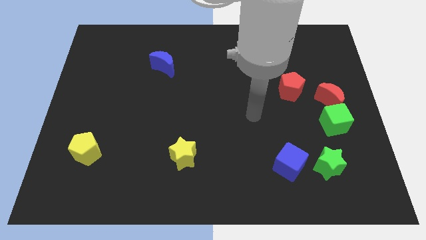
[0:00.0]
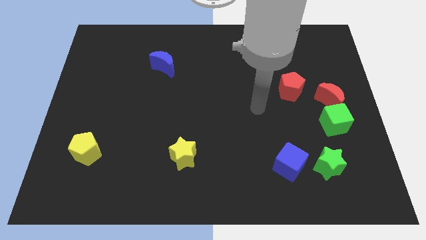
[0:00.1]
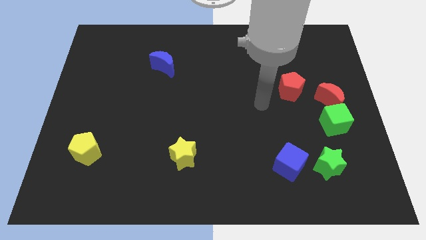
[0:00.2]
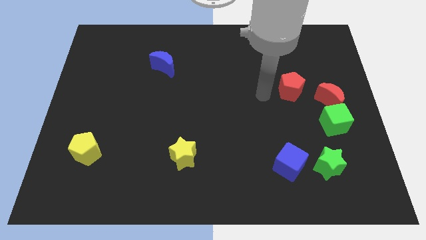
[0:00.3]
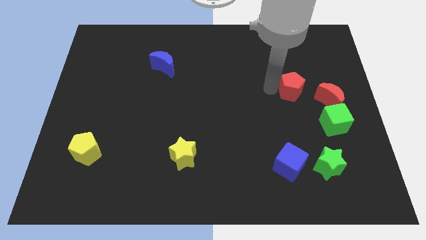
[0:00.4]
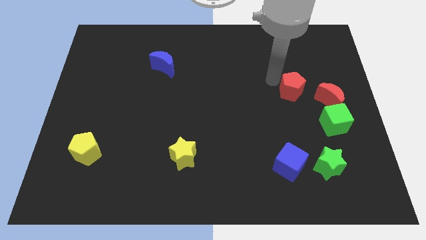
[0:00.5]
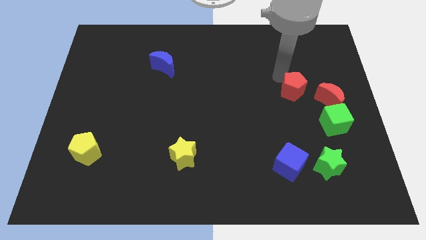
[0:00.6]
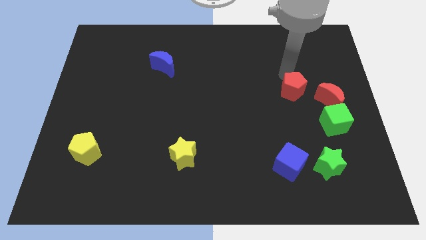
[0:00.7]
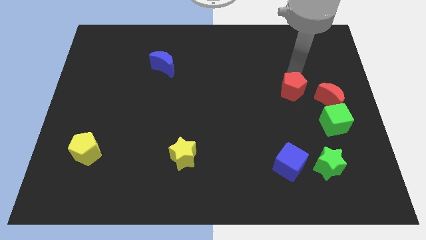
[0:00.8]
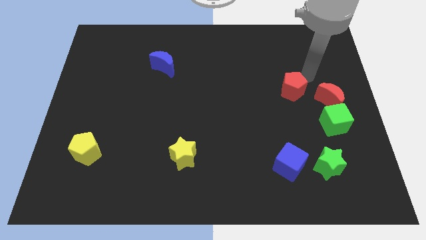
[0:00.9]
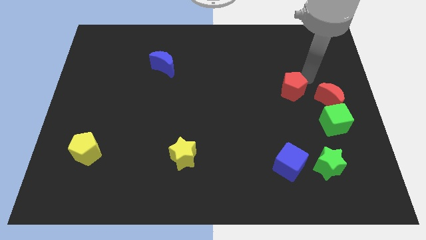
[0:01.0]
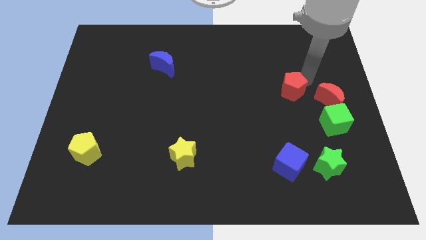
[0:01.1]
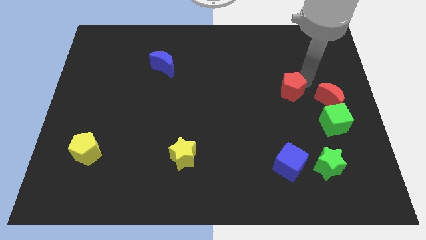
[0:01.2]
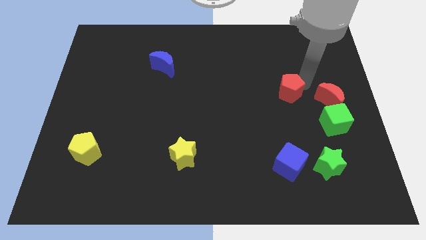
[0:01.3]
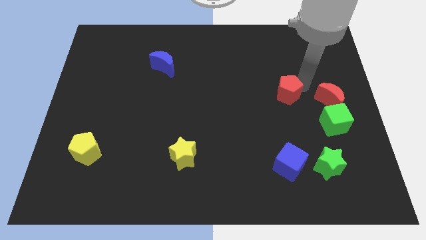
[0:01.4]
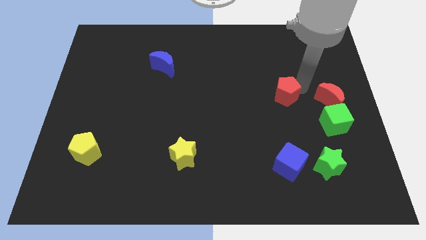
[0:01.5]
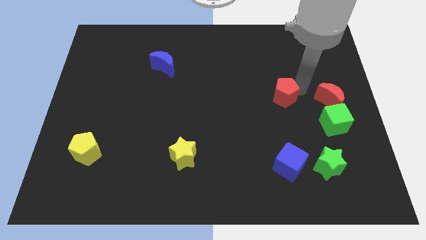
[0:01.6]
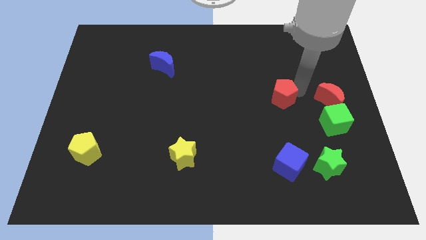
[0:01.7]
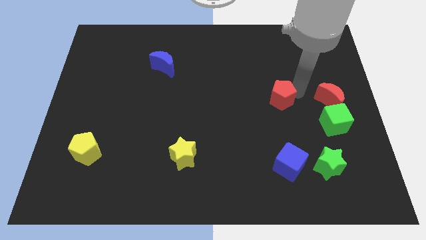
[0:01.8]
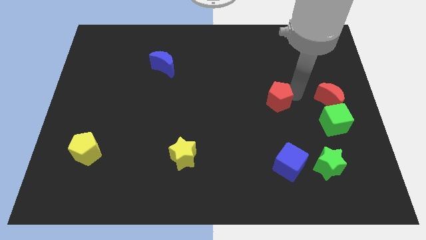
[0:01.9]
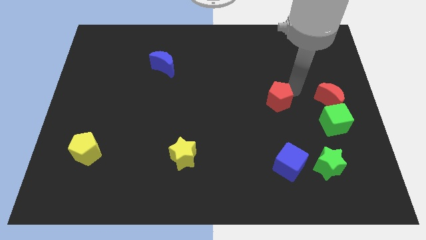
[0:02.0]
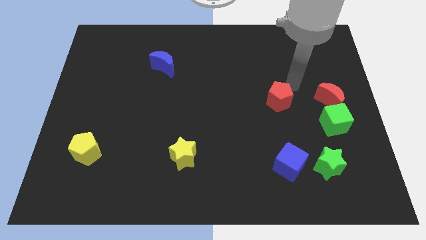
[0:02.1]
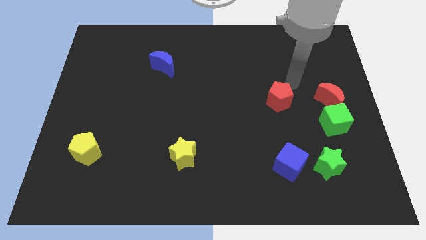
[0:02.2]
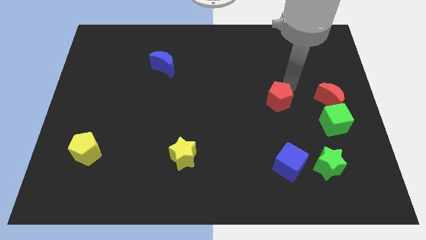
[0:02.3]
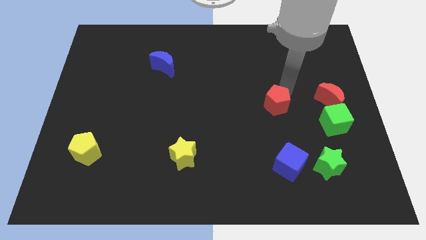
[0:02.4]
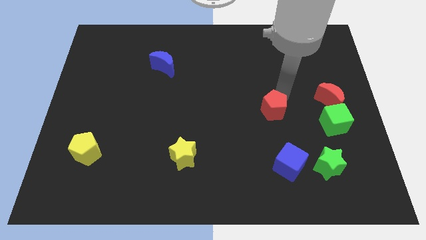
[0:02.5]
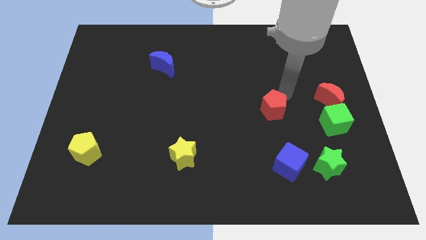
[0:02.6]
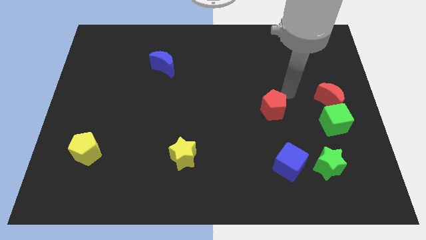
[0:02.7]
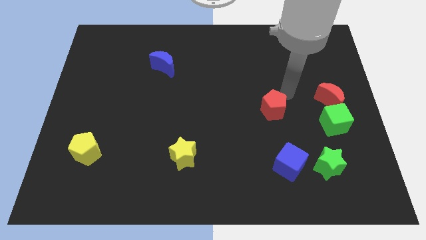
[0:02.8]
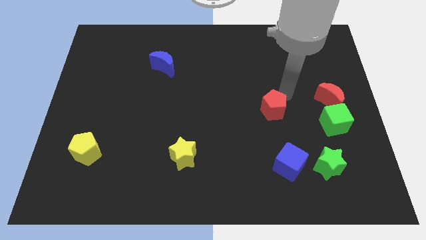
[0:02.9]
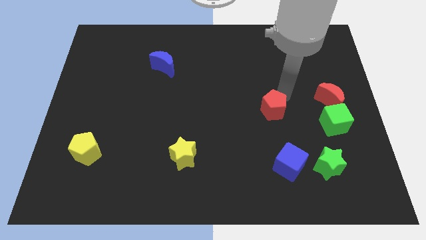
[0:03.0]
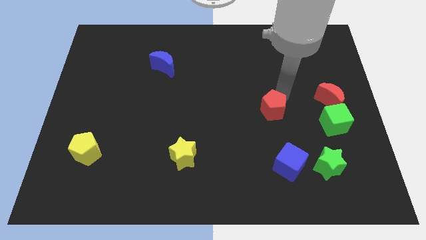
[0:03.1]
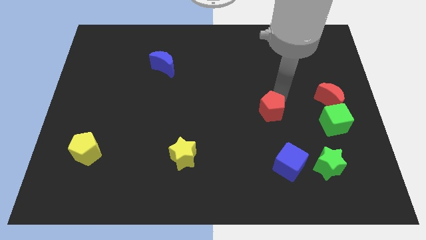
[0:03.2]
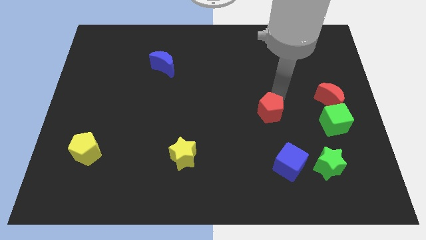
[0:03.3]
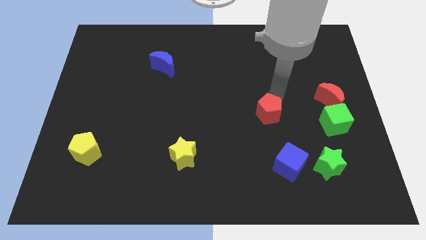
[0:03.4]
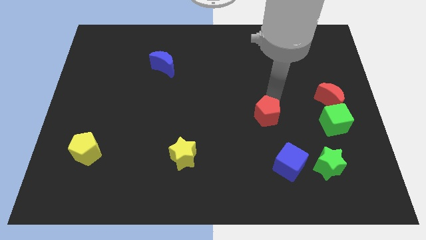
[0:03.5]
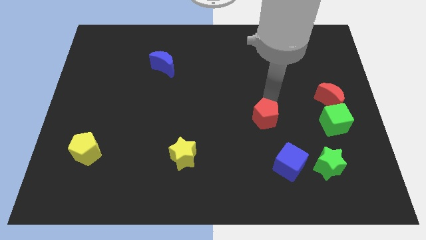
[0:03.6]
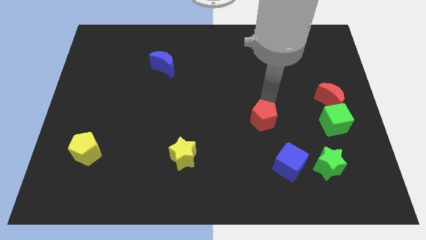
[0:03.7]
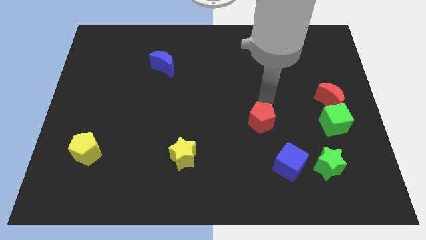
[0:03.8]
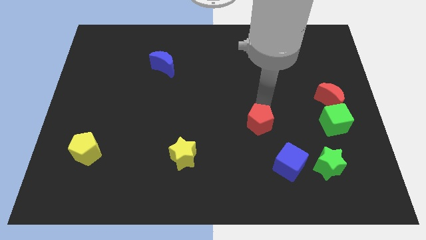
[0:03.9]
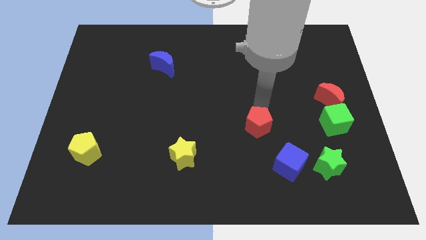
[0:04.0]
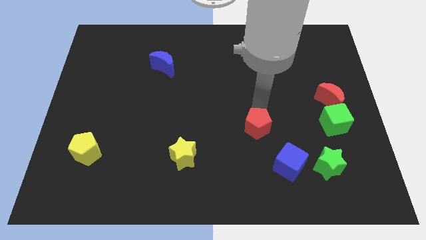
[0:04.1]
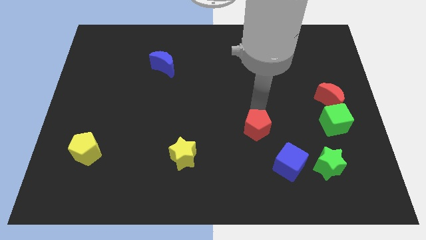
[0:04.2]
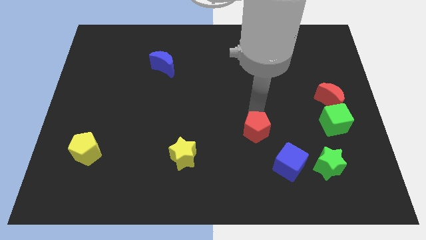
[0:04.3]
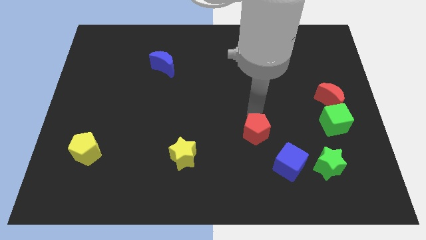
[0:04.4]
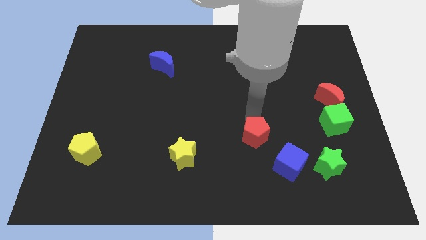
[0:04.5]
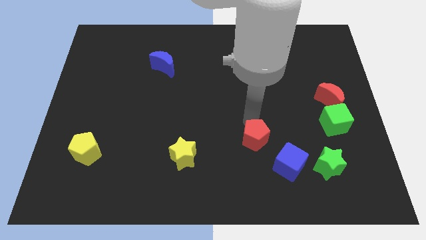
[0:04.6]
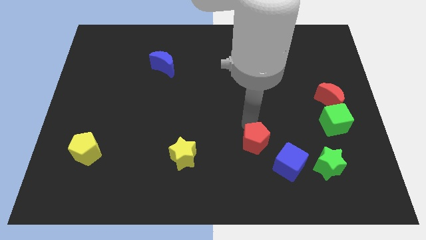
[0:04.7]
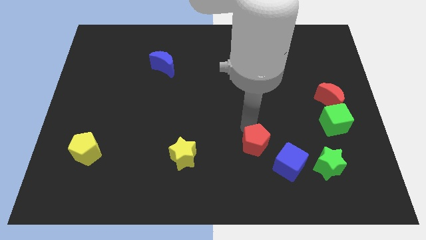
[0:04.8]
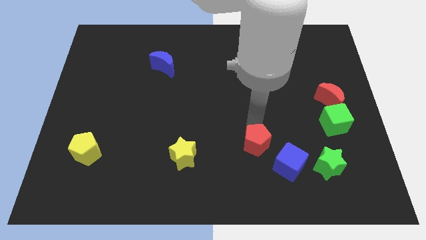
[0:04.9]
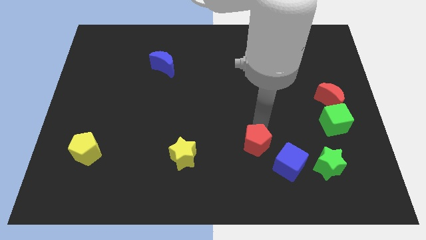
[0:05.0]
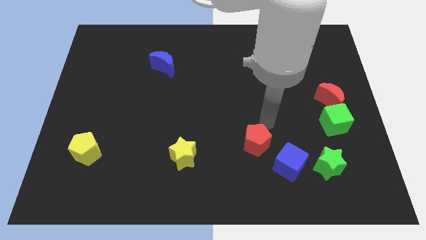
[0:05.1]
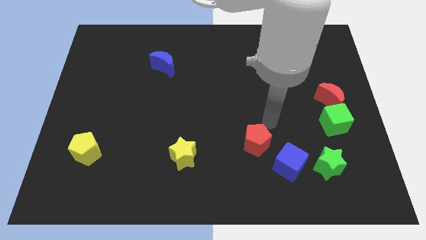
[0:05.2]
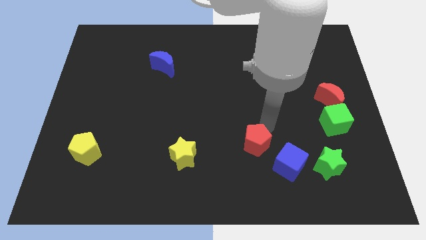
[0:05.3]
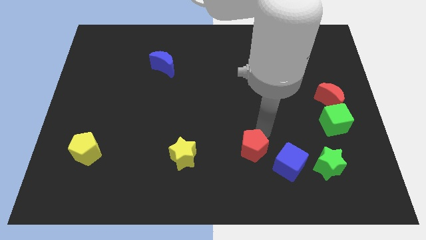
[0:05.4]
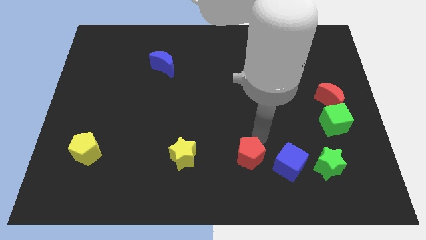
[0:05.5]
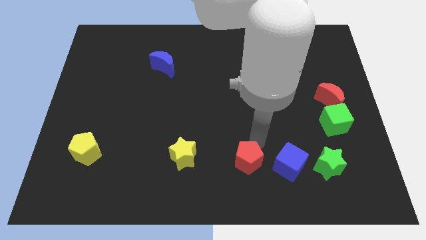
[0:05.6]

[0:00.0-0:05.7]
move the red pentagon to the bottom

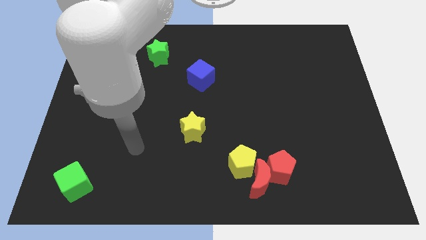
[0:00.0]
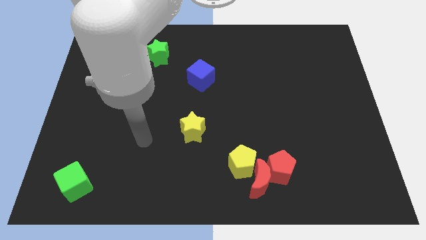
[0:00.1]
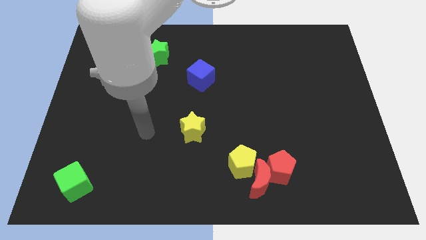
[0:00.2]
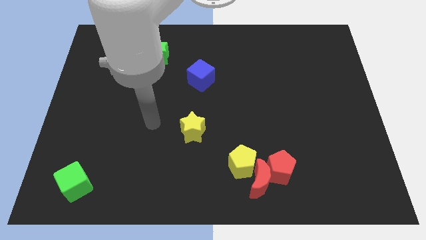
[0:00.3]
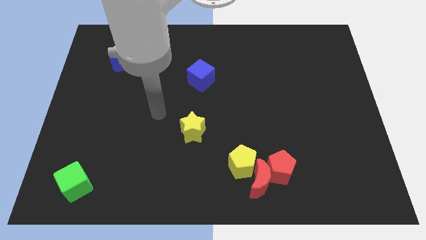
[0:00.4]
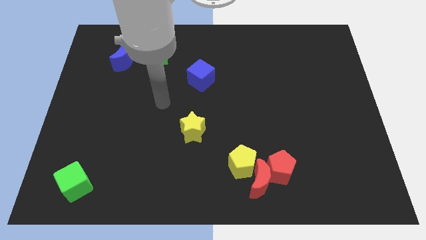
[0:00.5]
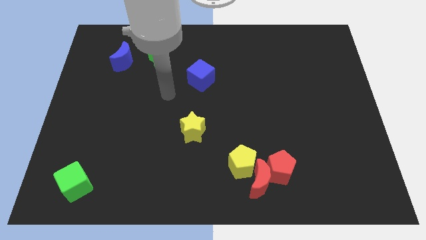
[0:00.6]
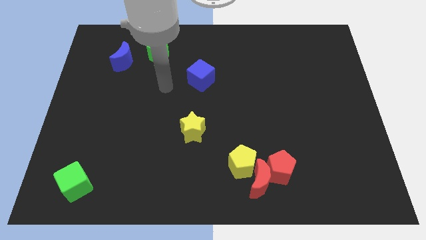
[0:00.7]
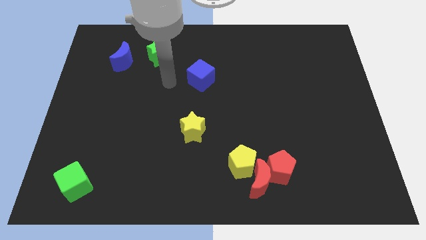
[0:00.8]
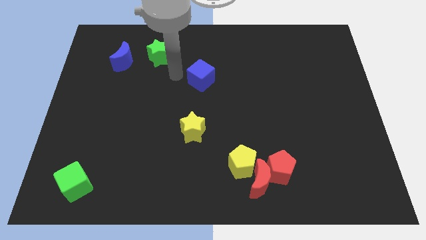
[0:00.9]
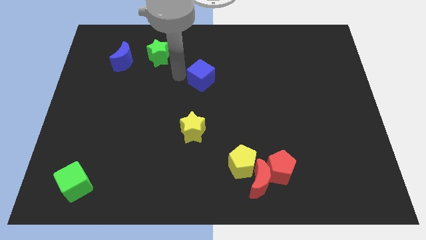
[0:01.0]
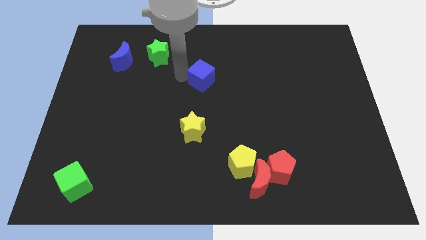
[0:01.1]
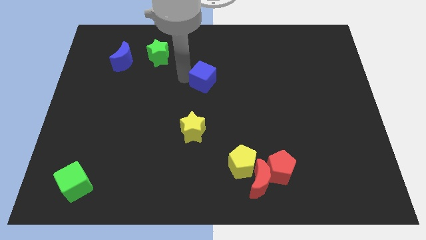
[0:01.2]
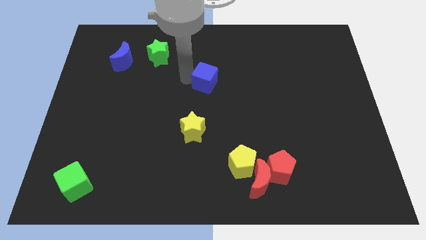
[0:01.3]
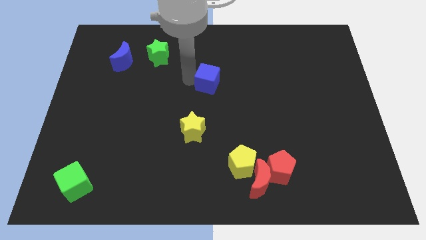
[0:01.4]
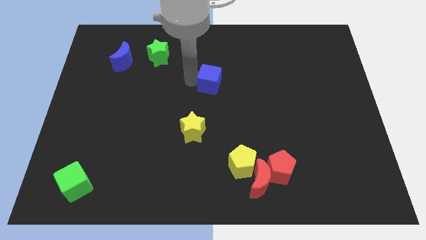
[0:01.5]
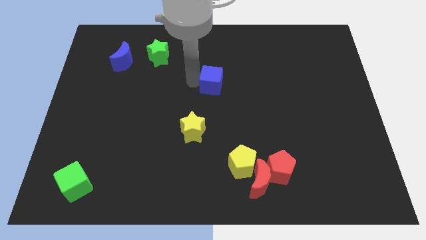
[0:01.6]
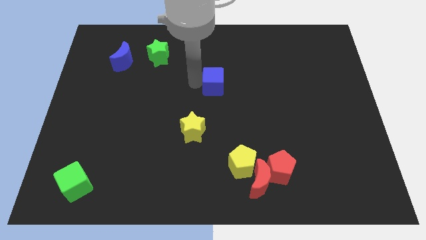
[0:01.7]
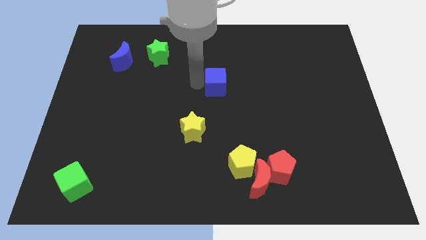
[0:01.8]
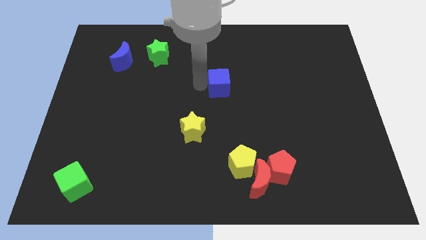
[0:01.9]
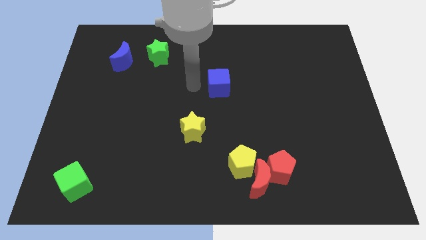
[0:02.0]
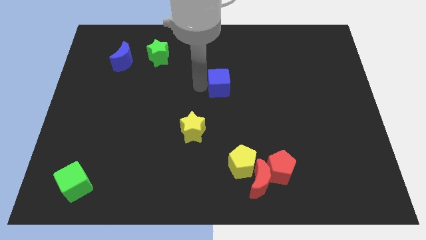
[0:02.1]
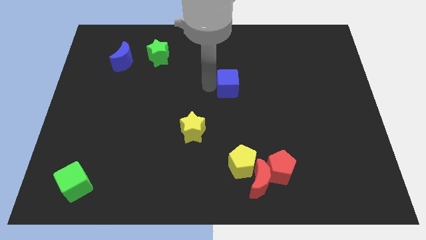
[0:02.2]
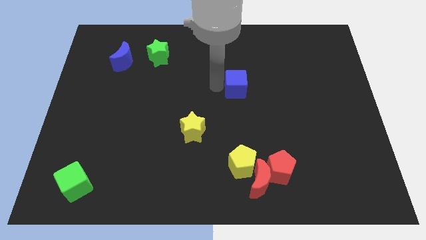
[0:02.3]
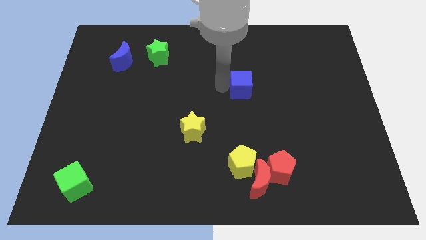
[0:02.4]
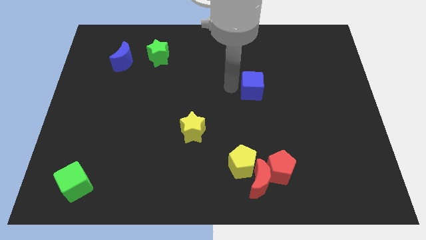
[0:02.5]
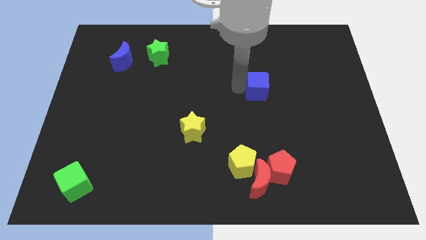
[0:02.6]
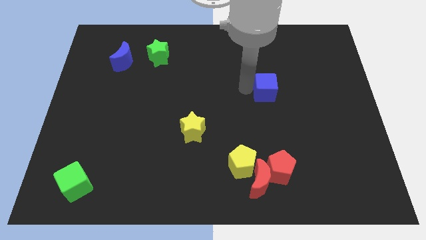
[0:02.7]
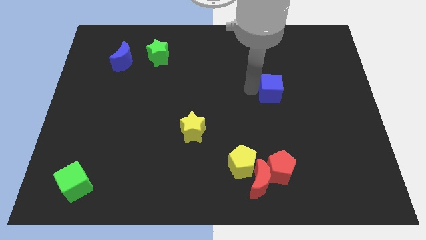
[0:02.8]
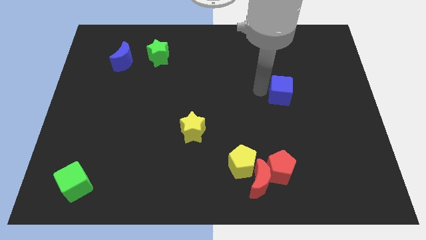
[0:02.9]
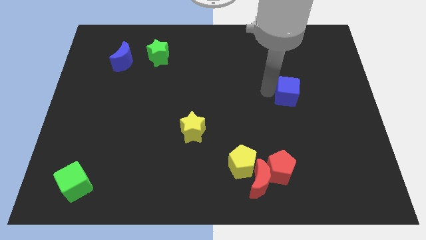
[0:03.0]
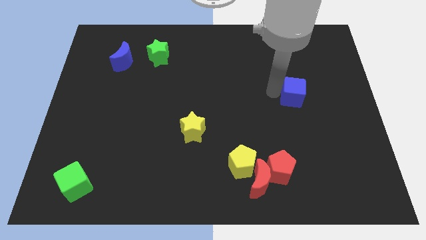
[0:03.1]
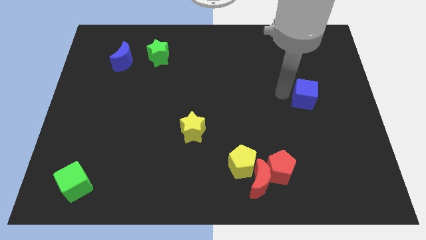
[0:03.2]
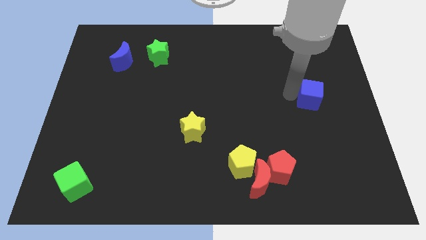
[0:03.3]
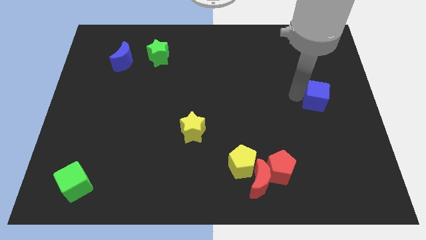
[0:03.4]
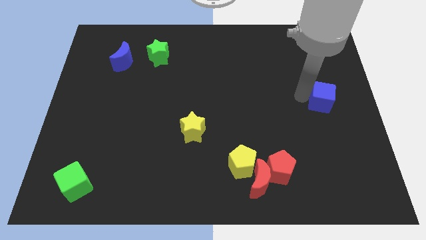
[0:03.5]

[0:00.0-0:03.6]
push the blue cube to the center right
